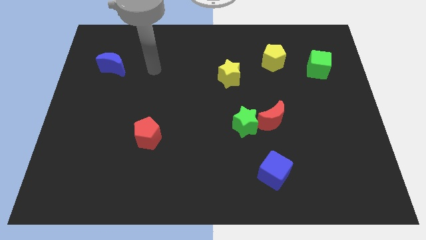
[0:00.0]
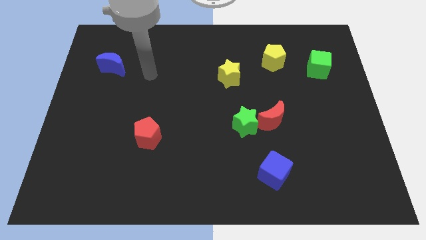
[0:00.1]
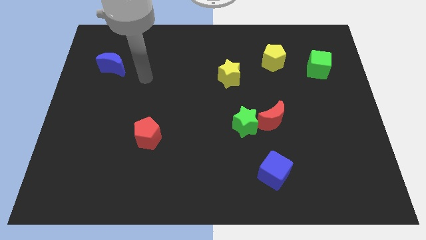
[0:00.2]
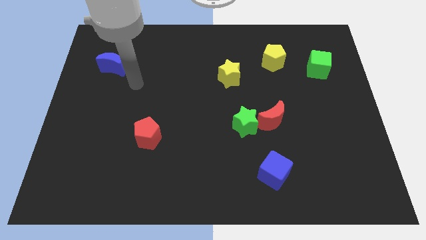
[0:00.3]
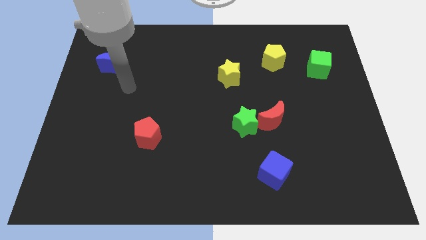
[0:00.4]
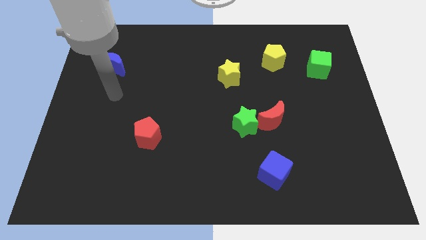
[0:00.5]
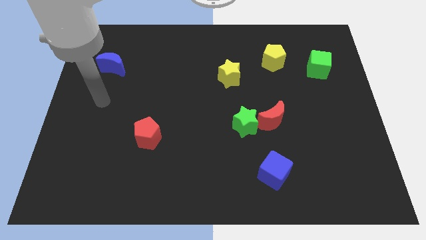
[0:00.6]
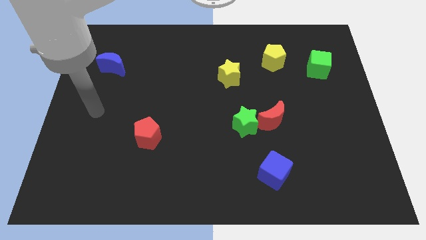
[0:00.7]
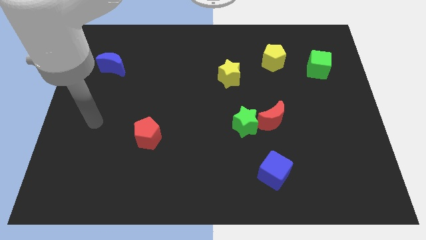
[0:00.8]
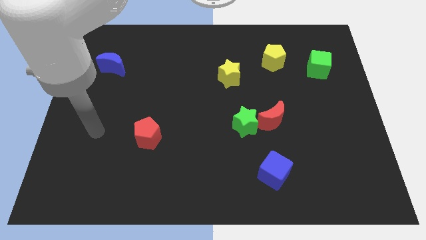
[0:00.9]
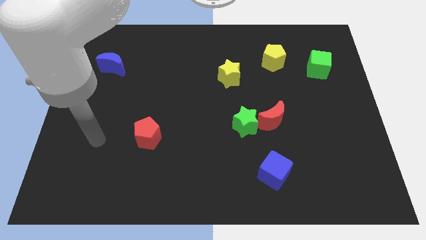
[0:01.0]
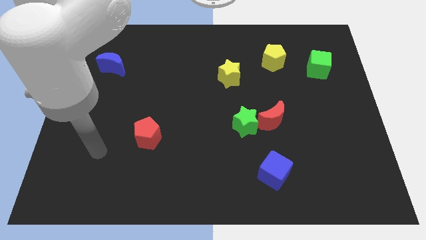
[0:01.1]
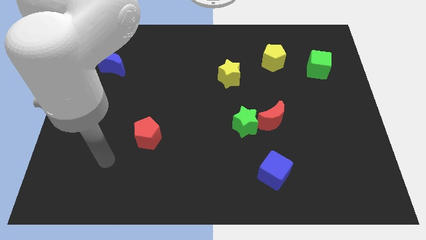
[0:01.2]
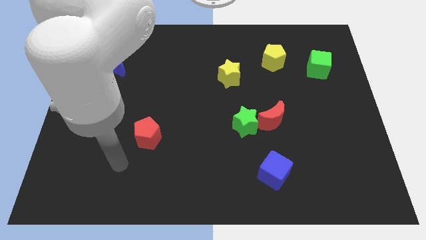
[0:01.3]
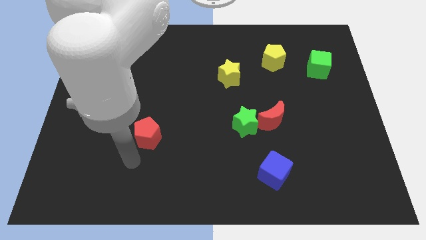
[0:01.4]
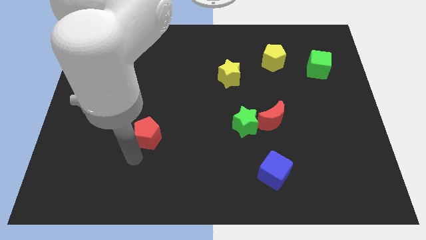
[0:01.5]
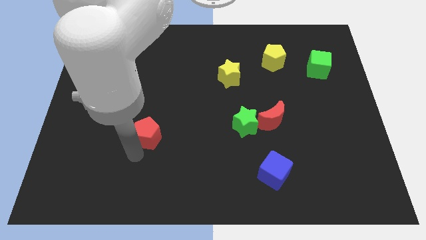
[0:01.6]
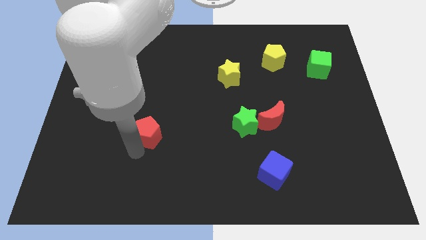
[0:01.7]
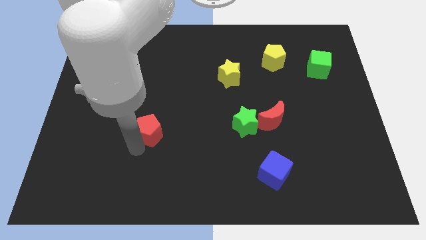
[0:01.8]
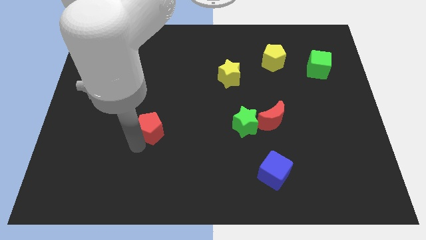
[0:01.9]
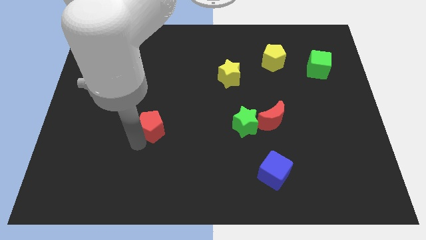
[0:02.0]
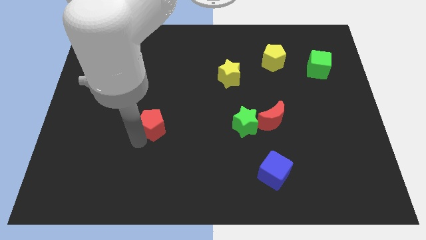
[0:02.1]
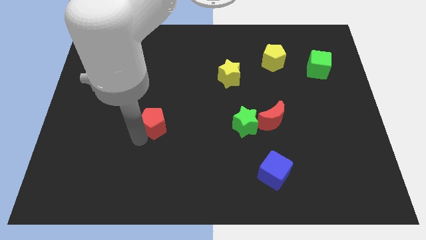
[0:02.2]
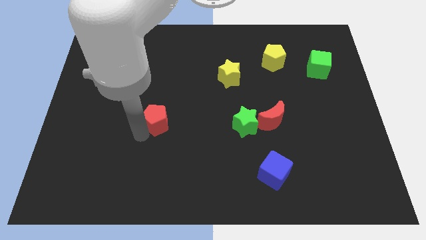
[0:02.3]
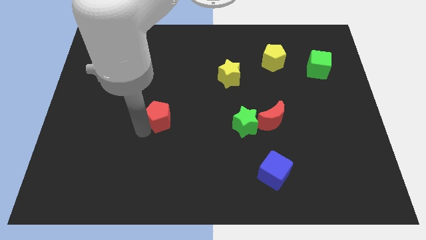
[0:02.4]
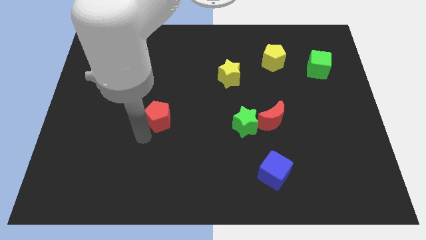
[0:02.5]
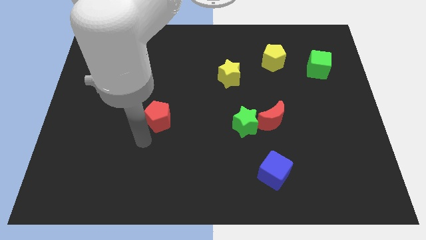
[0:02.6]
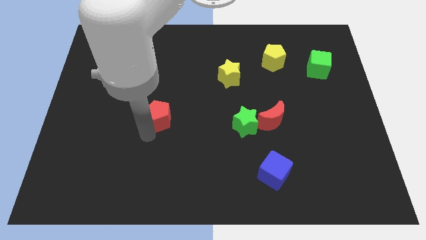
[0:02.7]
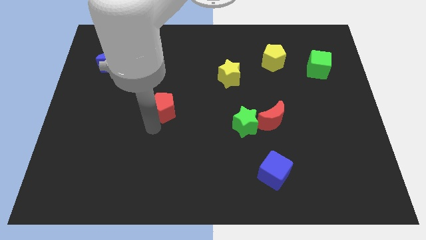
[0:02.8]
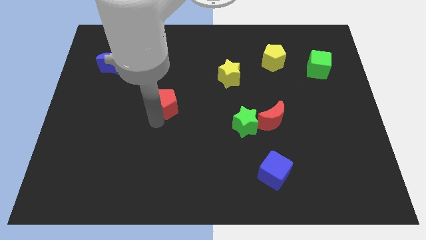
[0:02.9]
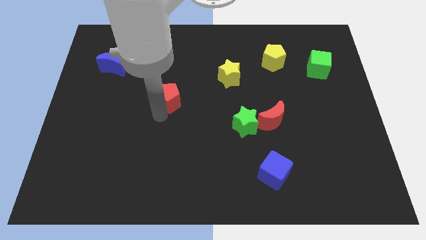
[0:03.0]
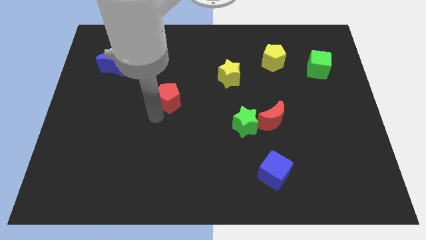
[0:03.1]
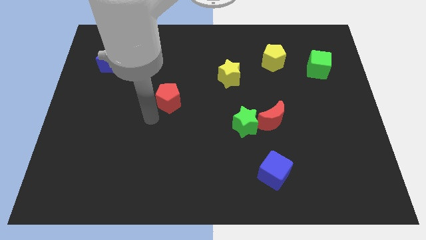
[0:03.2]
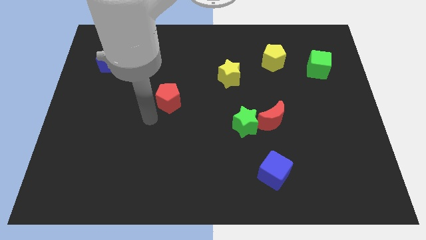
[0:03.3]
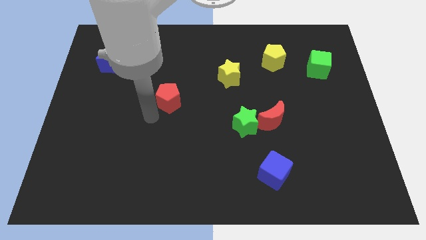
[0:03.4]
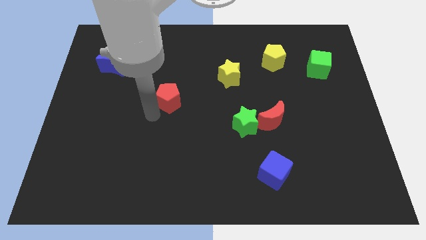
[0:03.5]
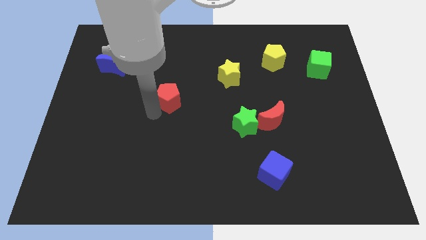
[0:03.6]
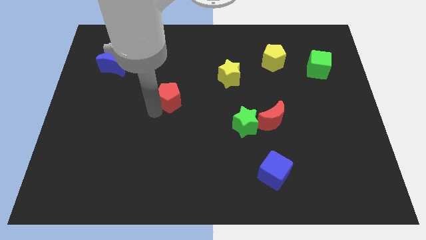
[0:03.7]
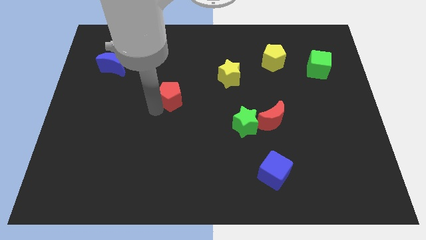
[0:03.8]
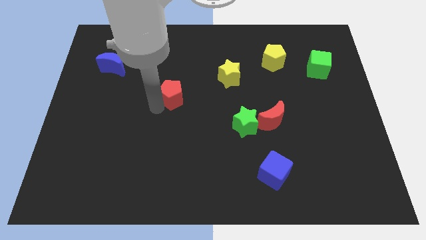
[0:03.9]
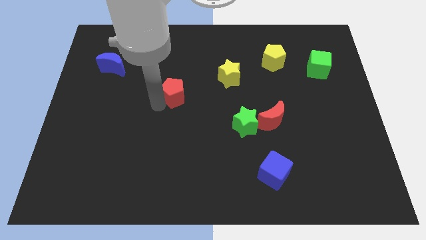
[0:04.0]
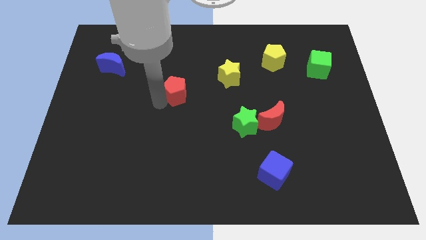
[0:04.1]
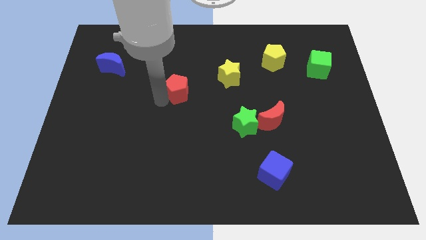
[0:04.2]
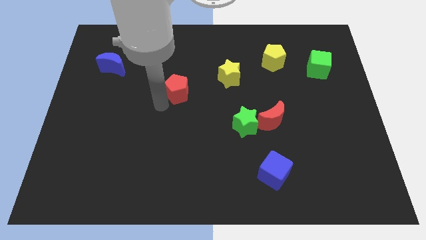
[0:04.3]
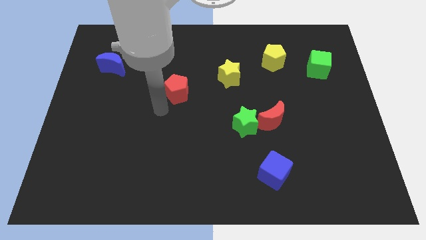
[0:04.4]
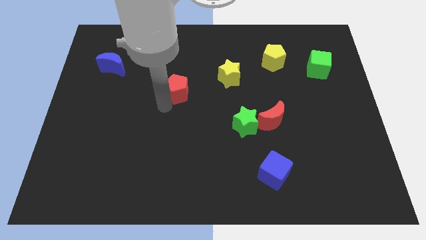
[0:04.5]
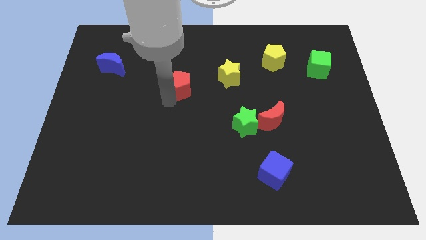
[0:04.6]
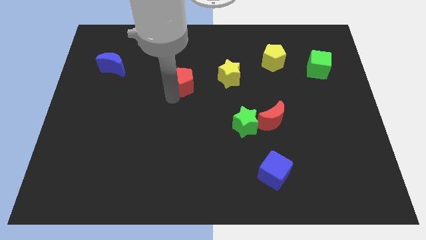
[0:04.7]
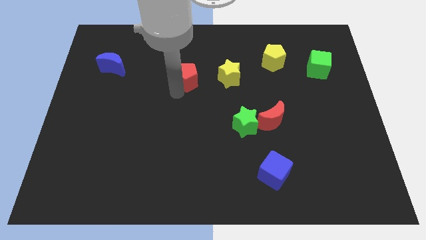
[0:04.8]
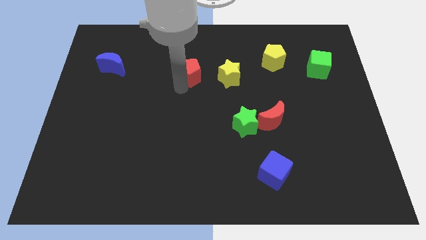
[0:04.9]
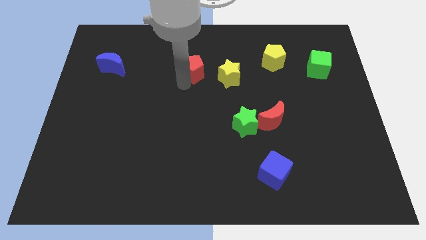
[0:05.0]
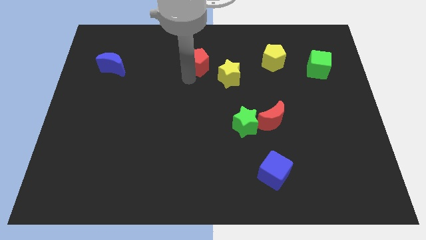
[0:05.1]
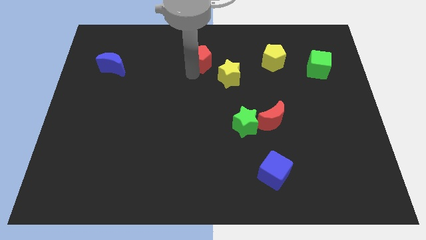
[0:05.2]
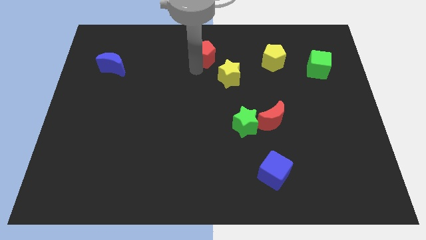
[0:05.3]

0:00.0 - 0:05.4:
put the red pentagon to the top

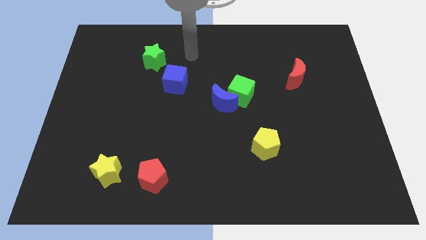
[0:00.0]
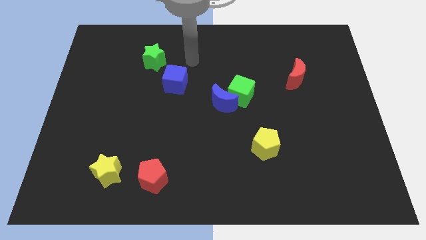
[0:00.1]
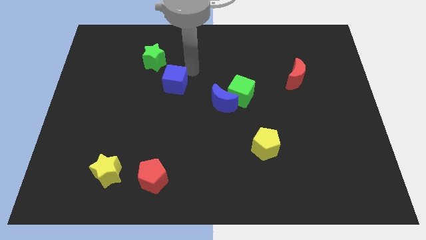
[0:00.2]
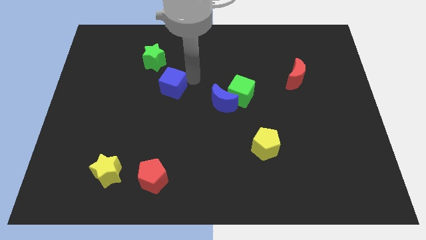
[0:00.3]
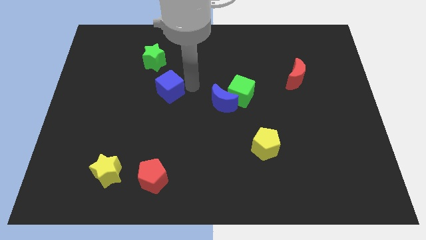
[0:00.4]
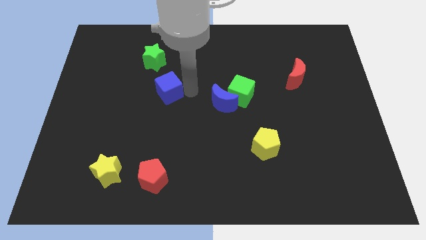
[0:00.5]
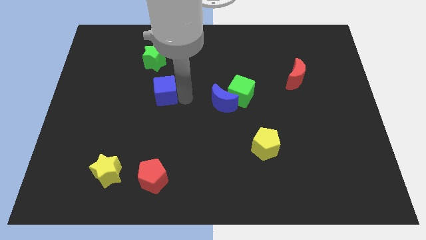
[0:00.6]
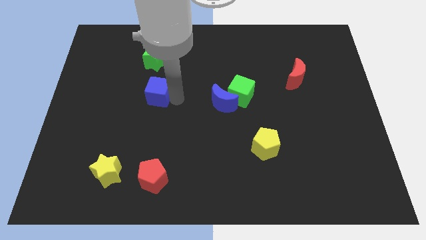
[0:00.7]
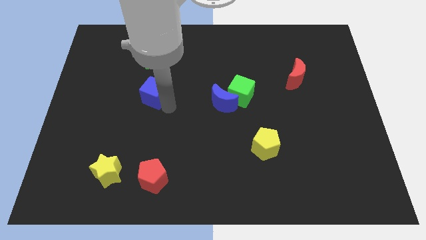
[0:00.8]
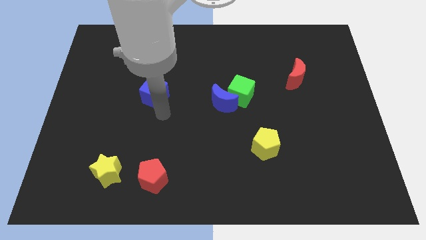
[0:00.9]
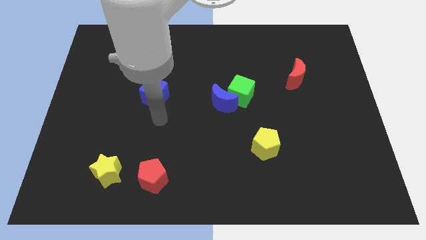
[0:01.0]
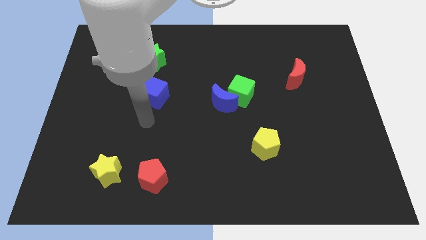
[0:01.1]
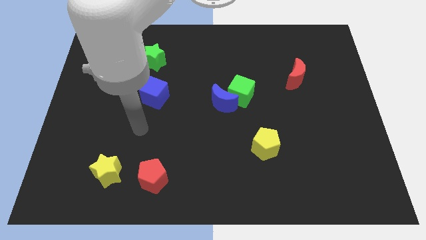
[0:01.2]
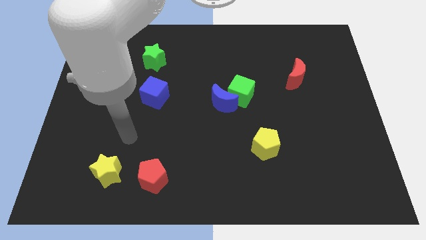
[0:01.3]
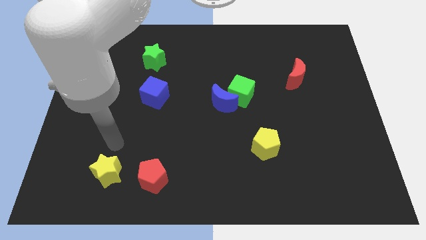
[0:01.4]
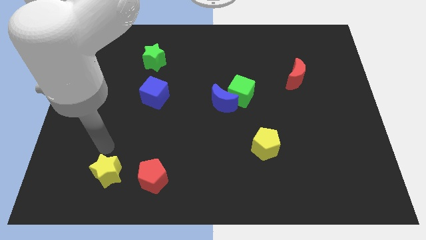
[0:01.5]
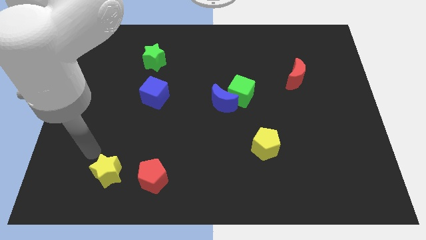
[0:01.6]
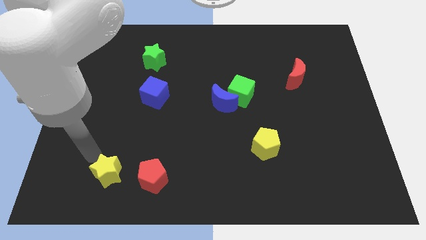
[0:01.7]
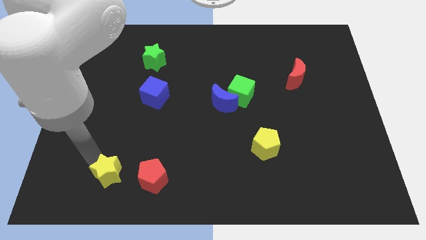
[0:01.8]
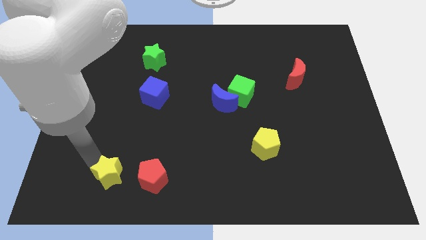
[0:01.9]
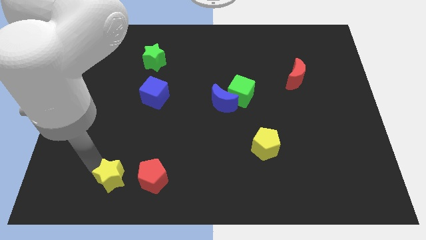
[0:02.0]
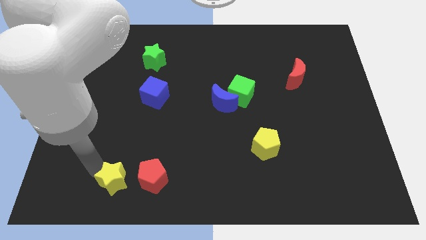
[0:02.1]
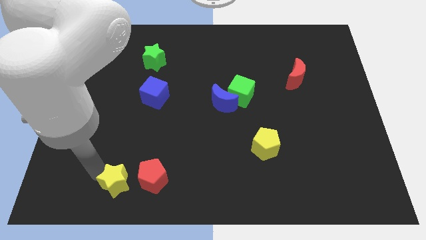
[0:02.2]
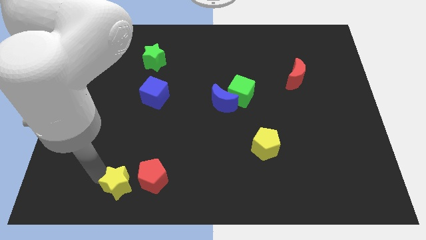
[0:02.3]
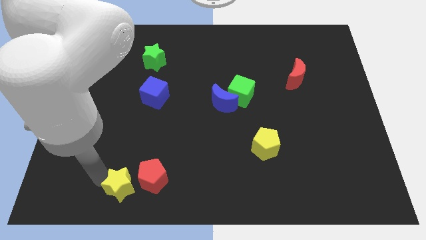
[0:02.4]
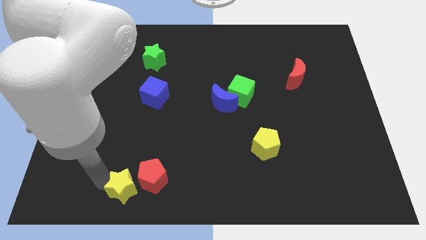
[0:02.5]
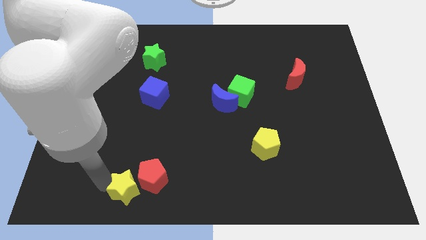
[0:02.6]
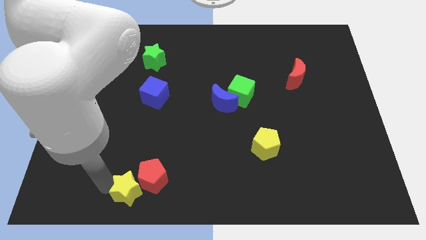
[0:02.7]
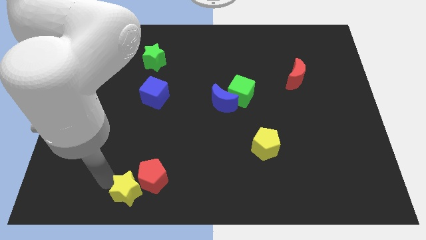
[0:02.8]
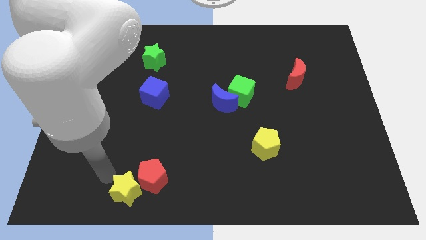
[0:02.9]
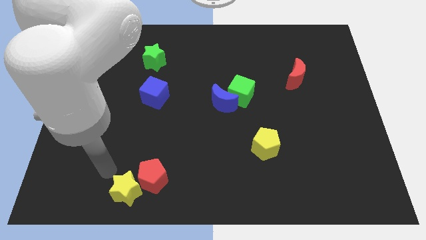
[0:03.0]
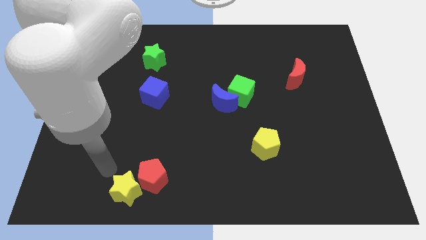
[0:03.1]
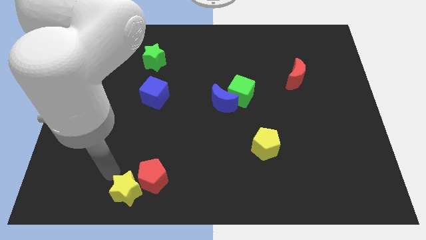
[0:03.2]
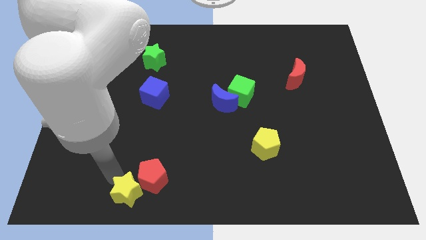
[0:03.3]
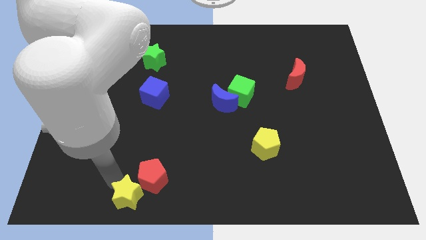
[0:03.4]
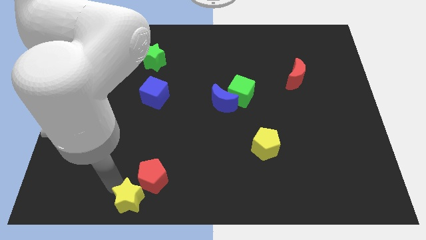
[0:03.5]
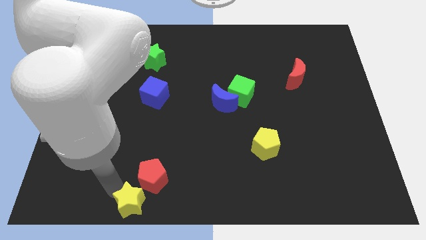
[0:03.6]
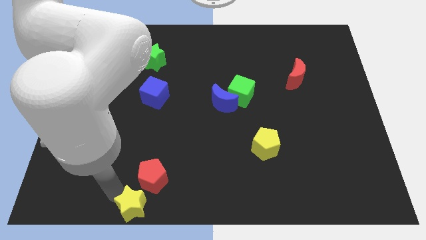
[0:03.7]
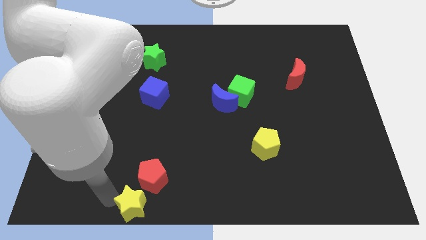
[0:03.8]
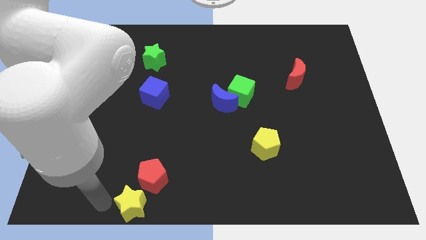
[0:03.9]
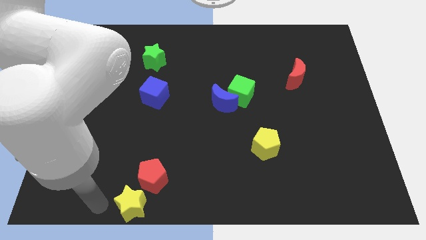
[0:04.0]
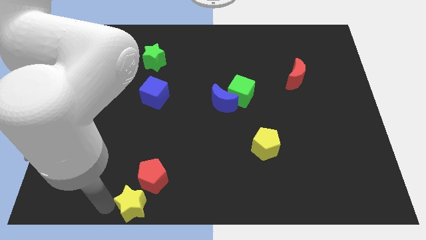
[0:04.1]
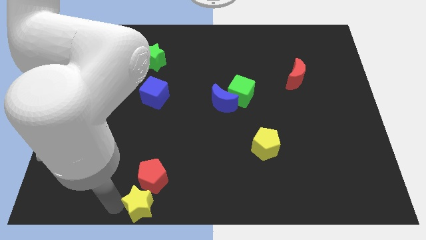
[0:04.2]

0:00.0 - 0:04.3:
put the yellow star to the bottom side
